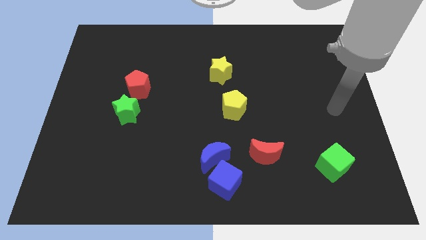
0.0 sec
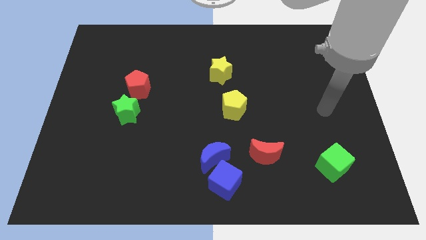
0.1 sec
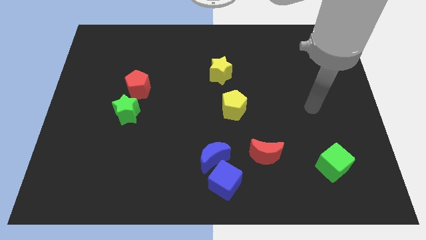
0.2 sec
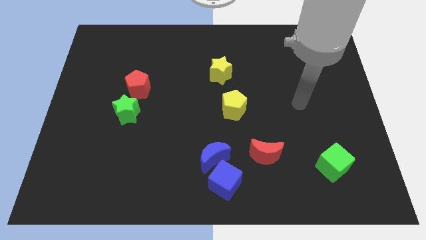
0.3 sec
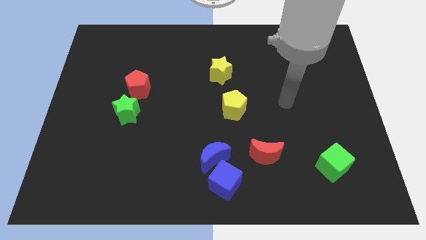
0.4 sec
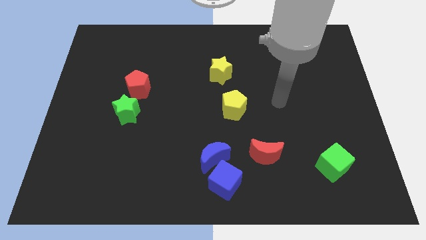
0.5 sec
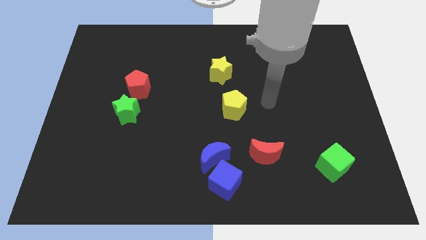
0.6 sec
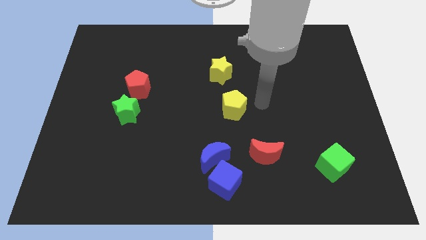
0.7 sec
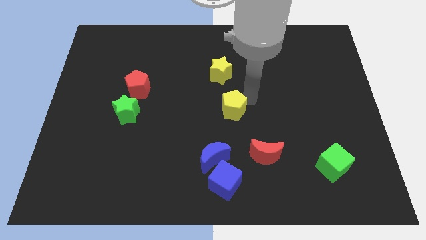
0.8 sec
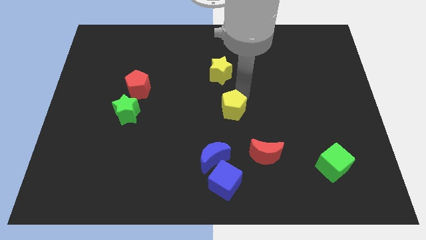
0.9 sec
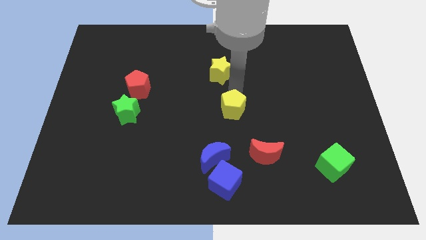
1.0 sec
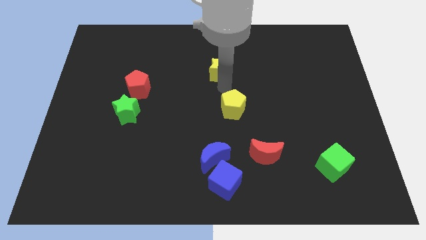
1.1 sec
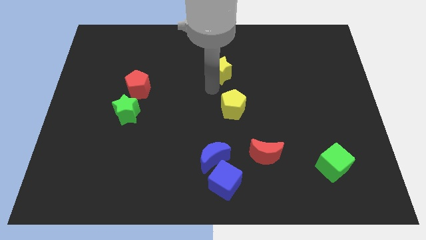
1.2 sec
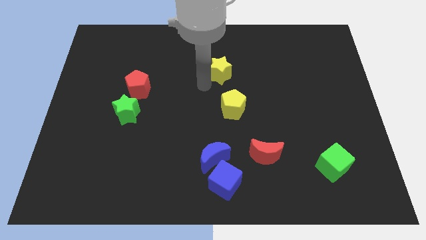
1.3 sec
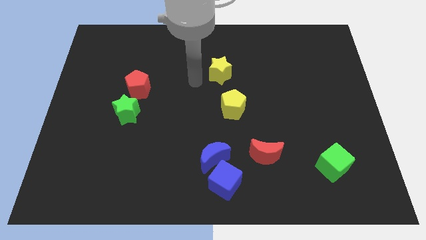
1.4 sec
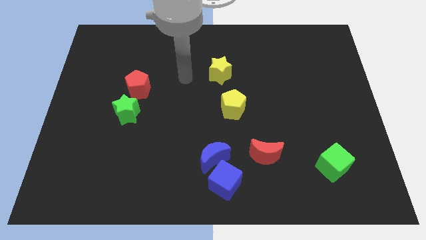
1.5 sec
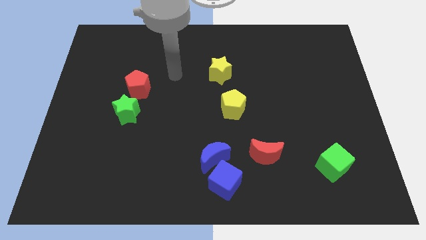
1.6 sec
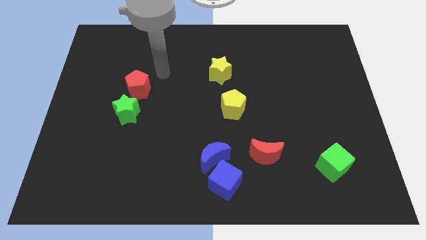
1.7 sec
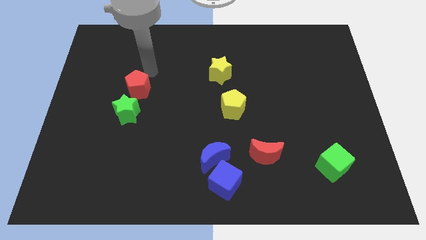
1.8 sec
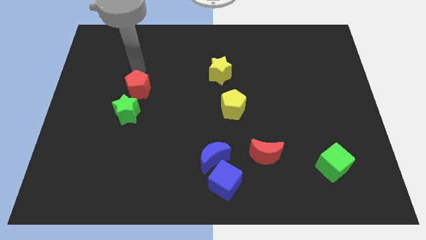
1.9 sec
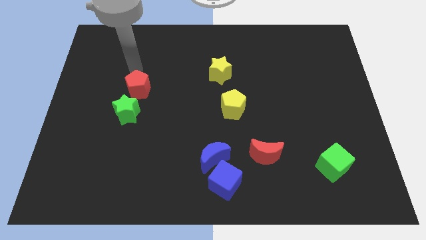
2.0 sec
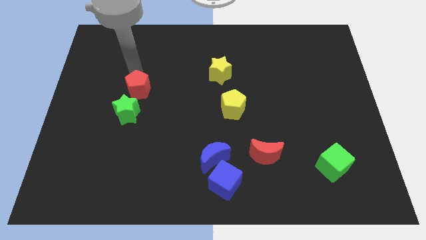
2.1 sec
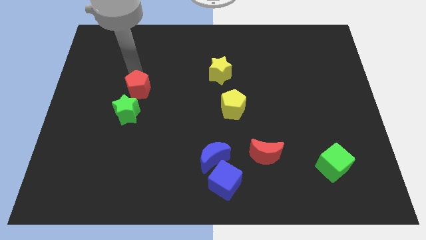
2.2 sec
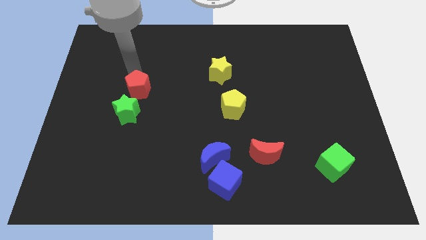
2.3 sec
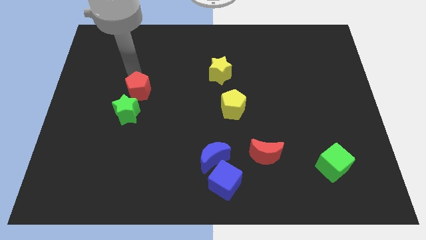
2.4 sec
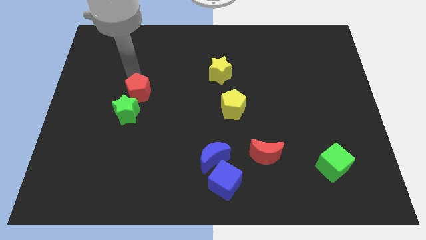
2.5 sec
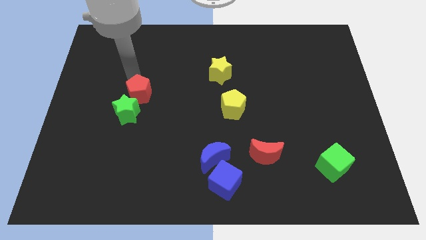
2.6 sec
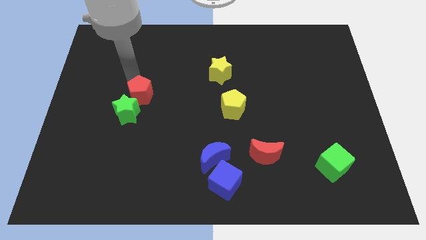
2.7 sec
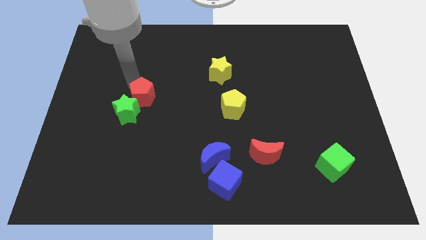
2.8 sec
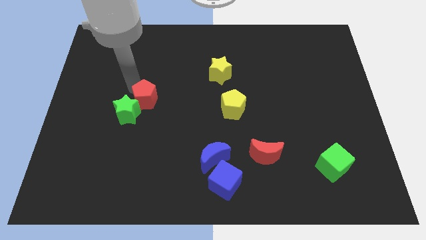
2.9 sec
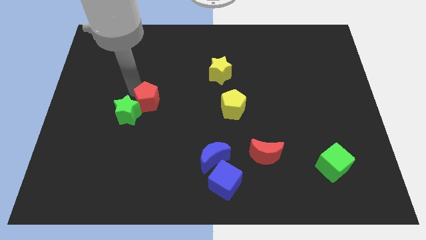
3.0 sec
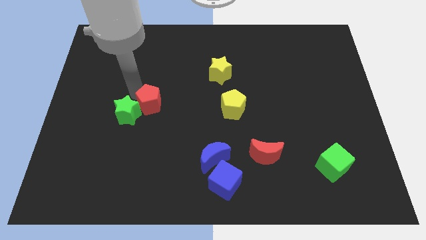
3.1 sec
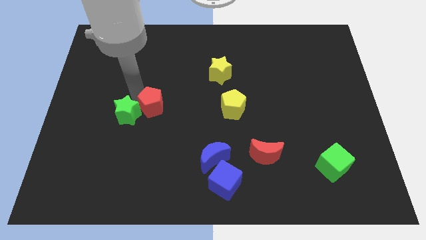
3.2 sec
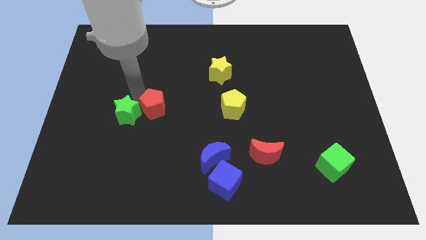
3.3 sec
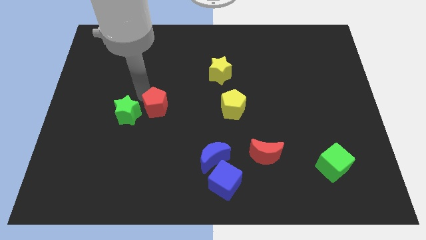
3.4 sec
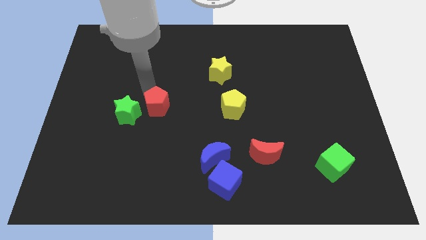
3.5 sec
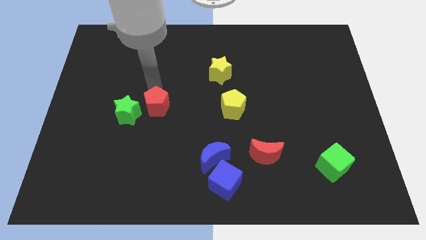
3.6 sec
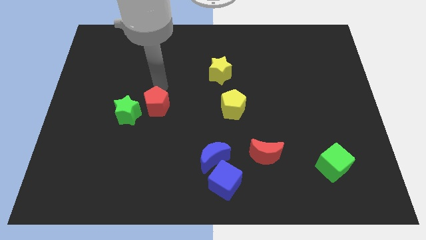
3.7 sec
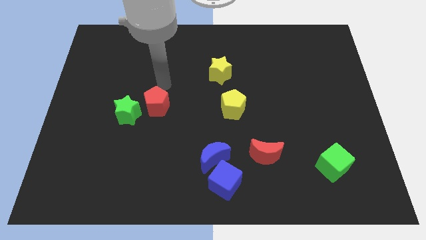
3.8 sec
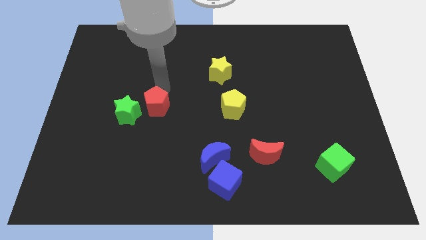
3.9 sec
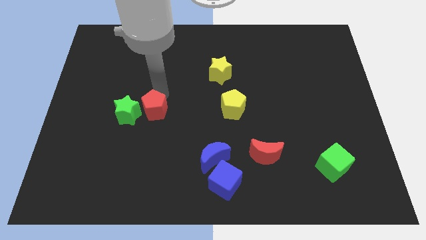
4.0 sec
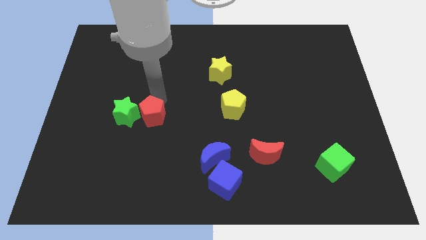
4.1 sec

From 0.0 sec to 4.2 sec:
push the red pentagon a little bit downwards

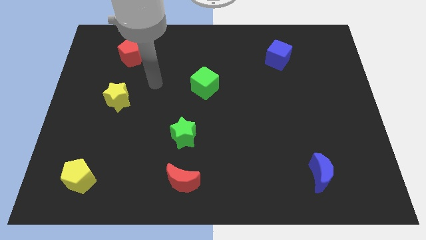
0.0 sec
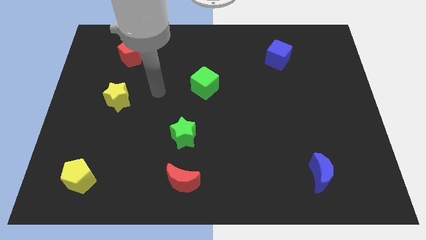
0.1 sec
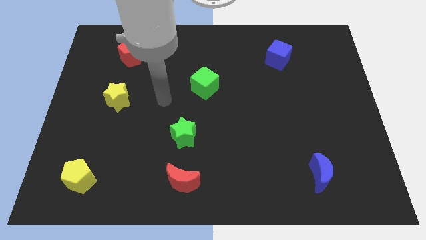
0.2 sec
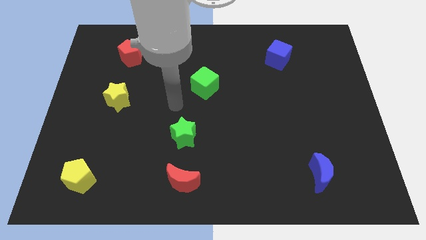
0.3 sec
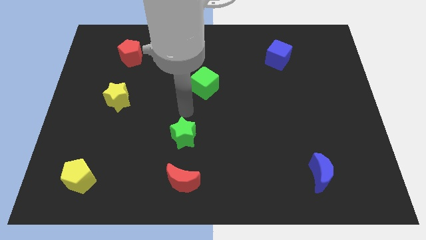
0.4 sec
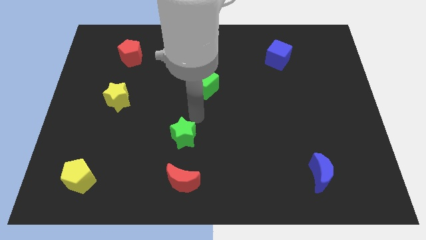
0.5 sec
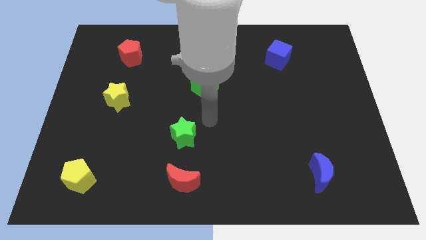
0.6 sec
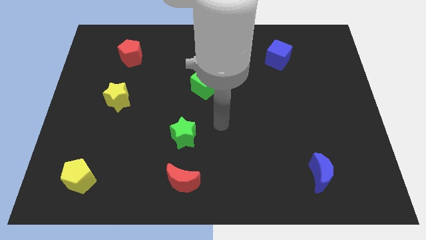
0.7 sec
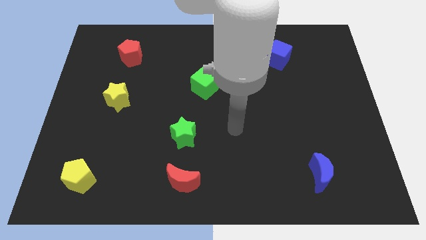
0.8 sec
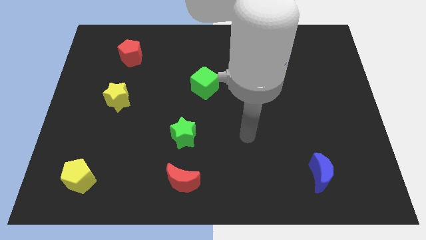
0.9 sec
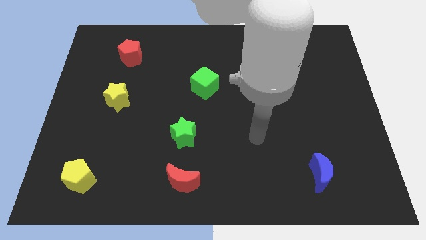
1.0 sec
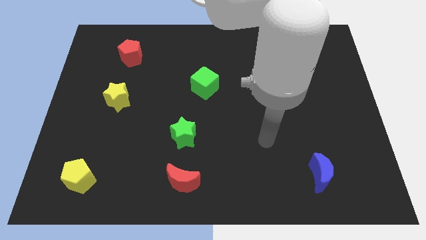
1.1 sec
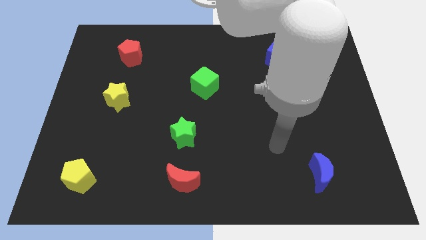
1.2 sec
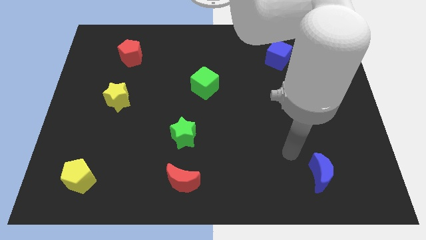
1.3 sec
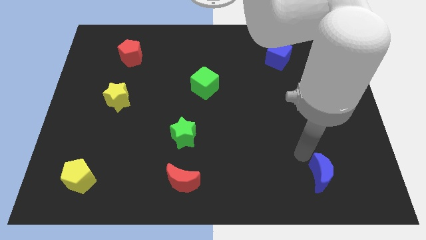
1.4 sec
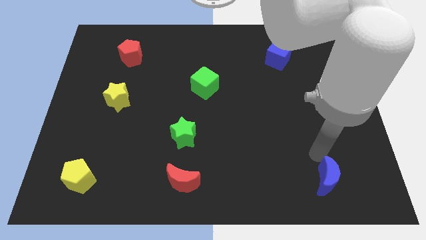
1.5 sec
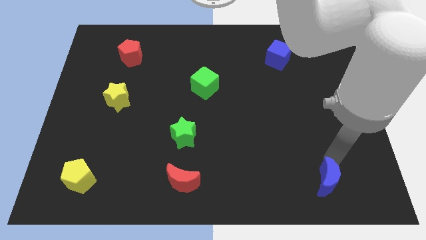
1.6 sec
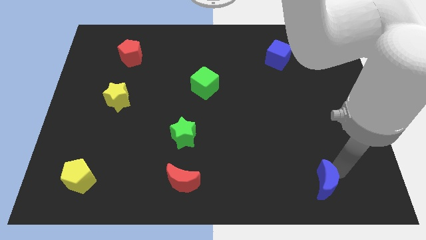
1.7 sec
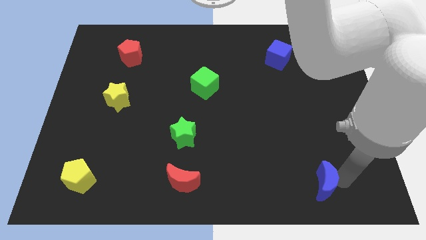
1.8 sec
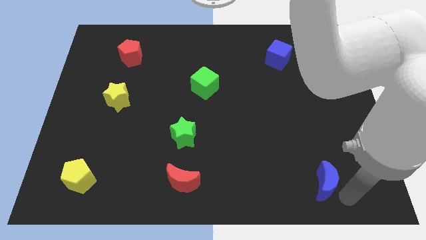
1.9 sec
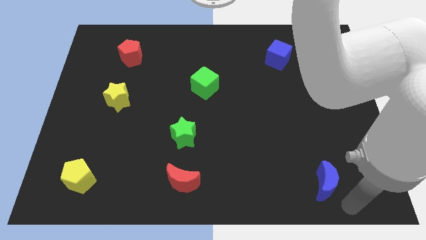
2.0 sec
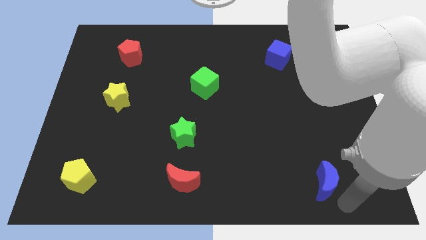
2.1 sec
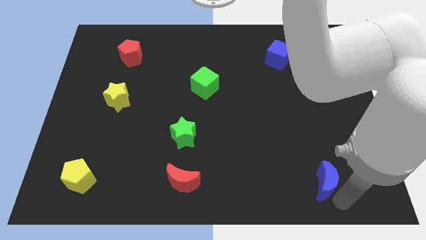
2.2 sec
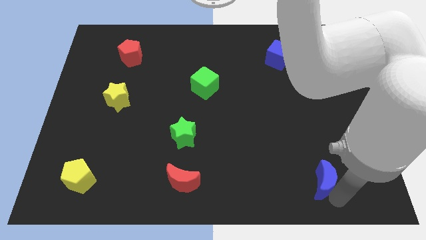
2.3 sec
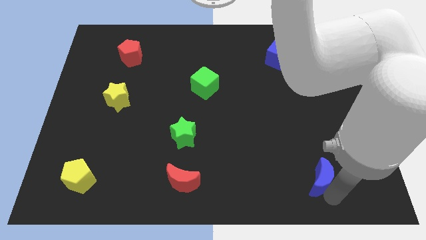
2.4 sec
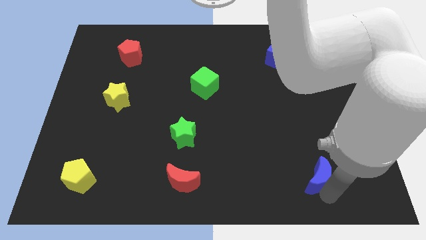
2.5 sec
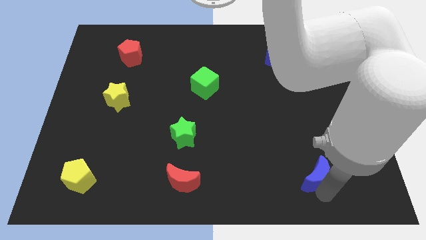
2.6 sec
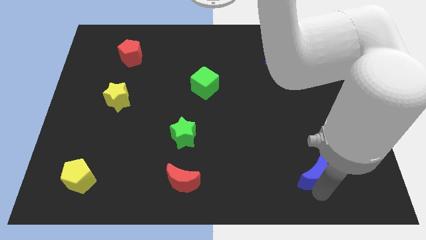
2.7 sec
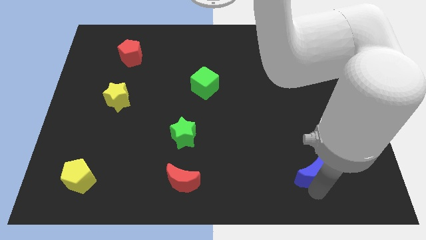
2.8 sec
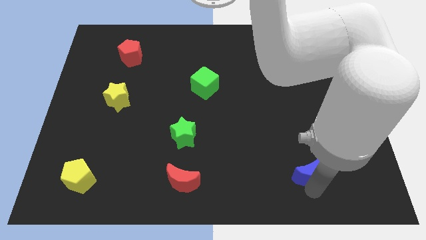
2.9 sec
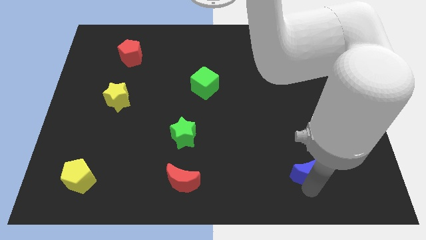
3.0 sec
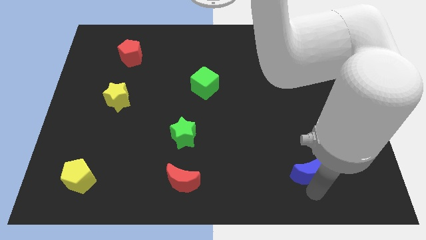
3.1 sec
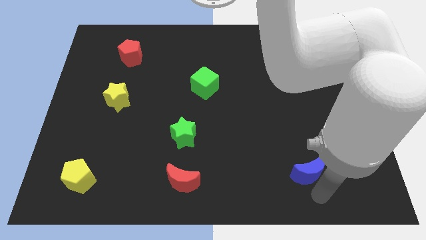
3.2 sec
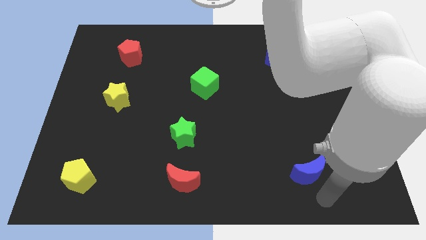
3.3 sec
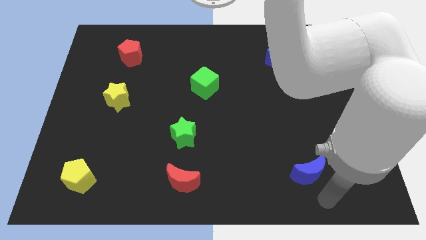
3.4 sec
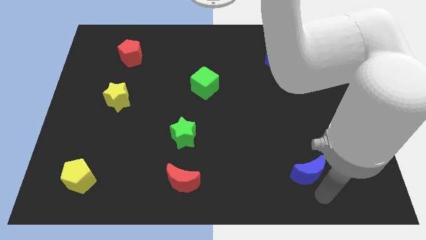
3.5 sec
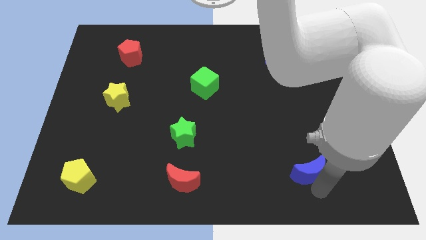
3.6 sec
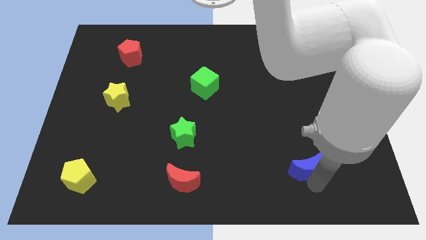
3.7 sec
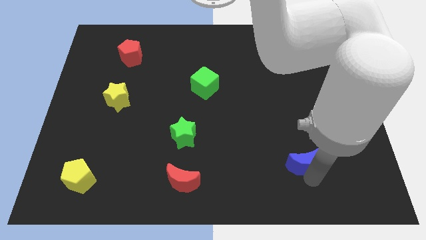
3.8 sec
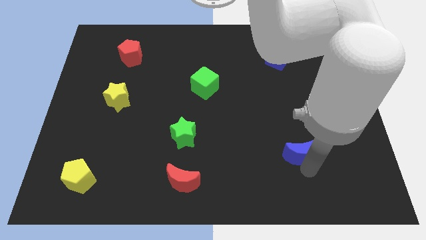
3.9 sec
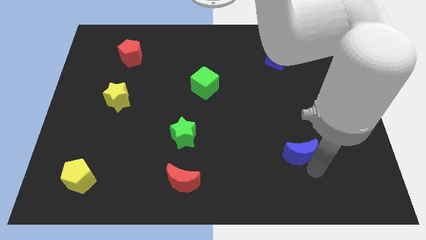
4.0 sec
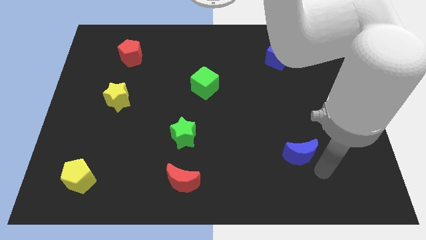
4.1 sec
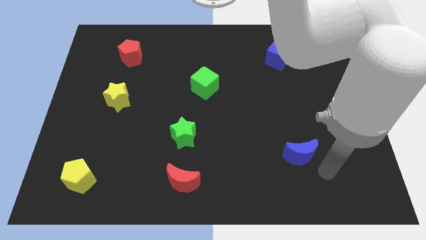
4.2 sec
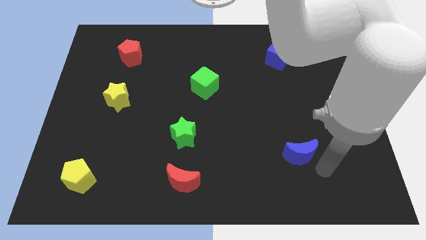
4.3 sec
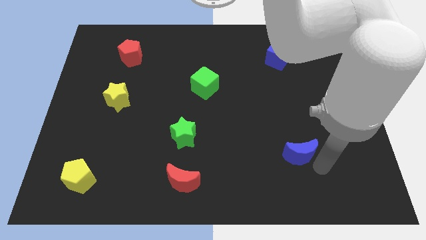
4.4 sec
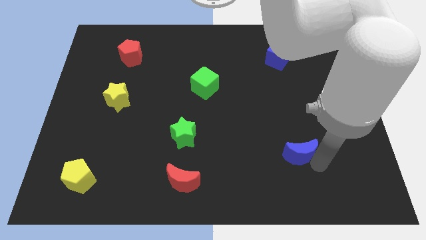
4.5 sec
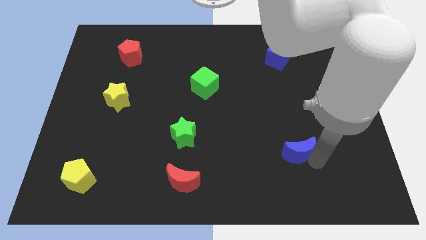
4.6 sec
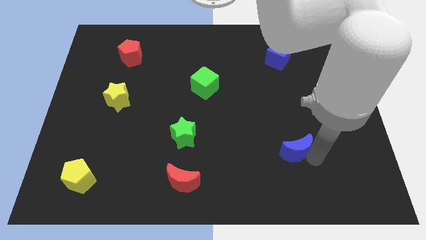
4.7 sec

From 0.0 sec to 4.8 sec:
slide the blue moon a little diagonally upwards and to the left
